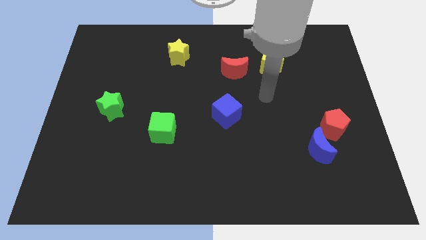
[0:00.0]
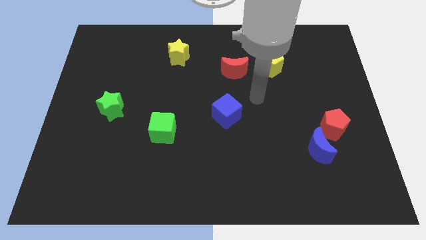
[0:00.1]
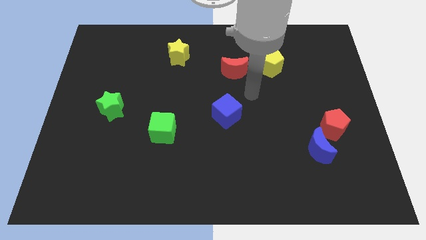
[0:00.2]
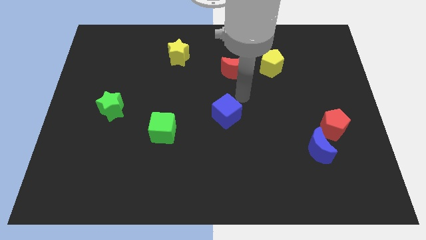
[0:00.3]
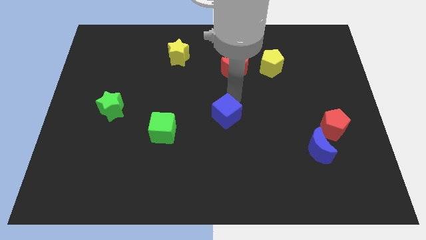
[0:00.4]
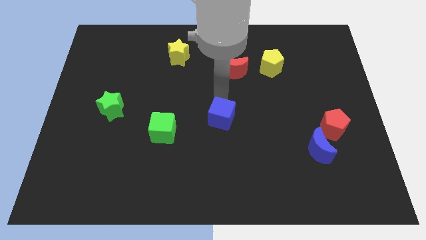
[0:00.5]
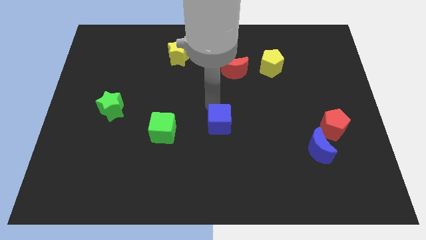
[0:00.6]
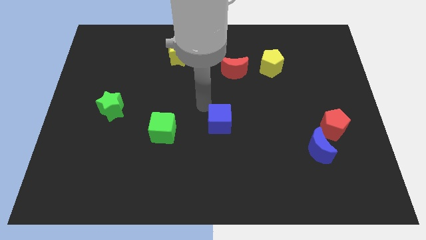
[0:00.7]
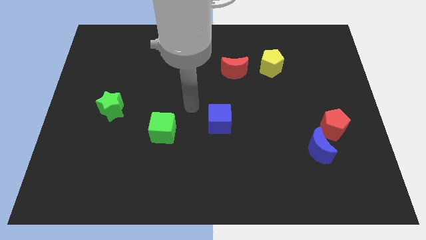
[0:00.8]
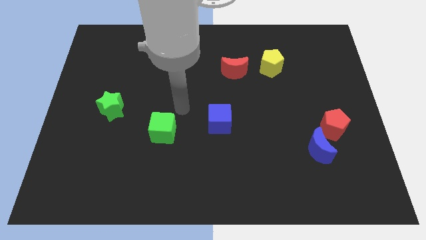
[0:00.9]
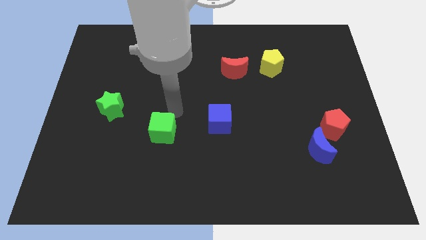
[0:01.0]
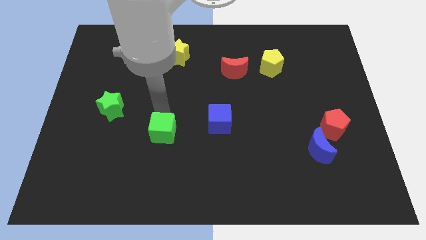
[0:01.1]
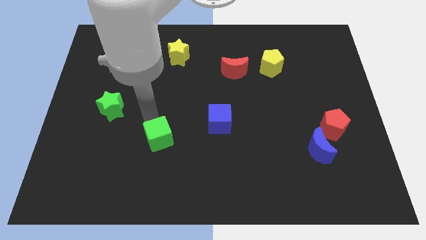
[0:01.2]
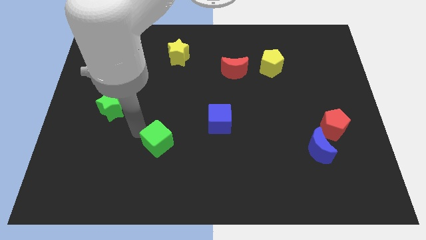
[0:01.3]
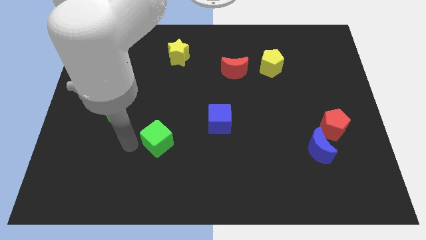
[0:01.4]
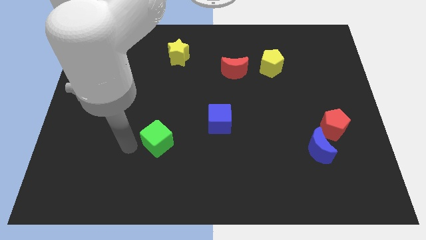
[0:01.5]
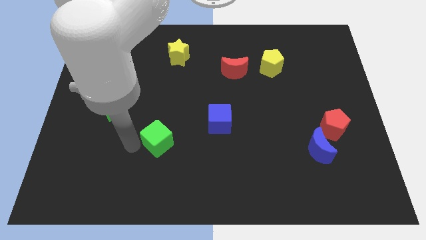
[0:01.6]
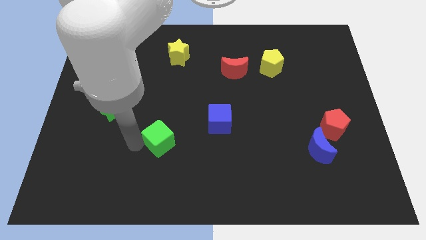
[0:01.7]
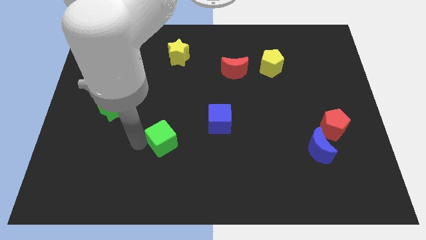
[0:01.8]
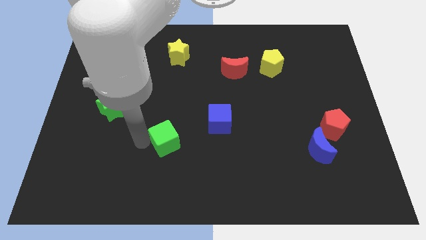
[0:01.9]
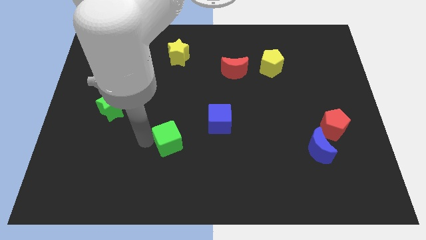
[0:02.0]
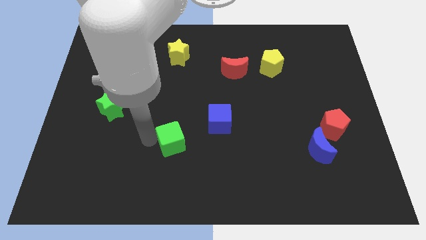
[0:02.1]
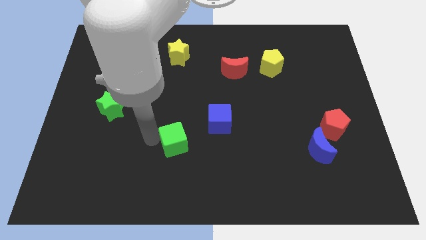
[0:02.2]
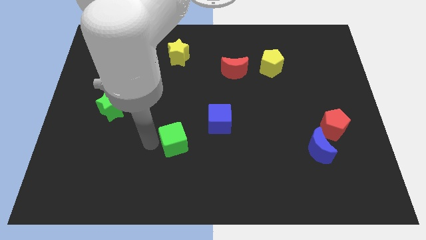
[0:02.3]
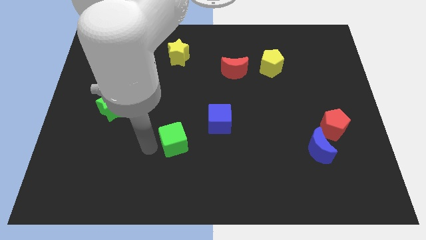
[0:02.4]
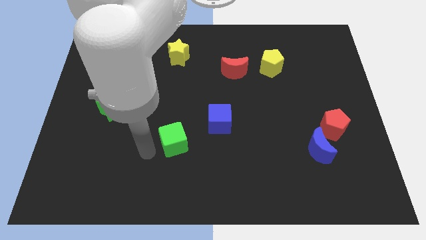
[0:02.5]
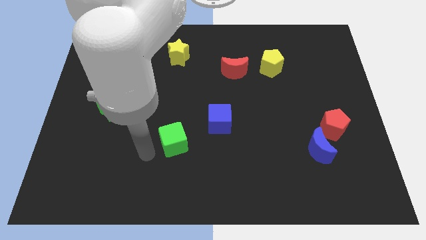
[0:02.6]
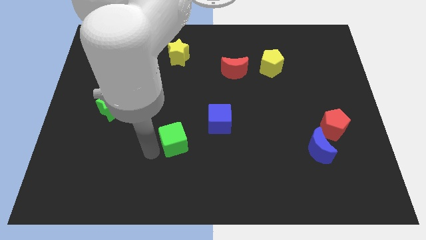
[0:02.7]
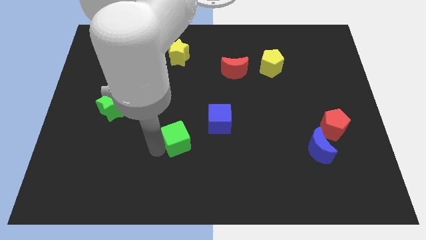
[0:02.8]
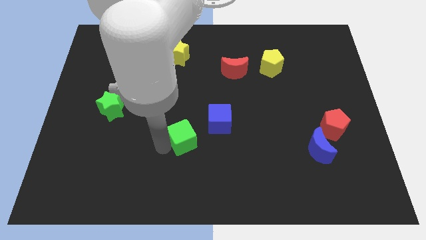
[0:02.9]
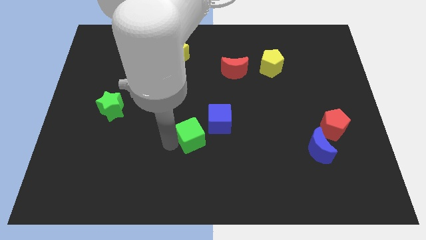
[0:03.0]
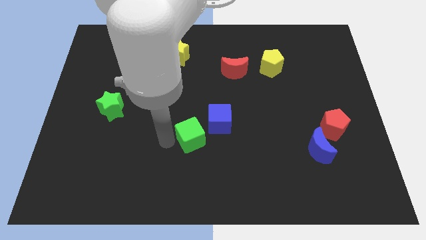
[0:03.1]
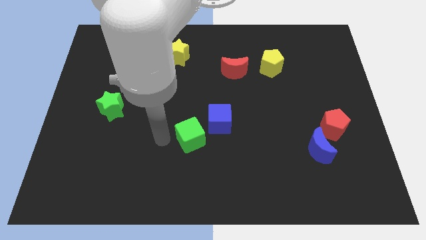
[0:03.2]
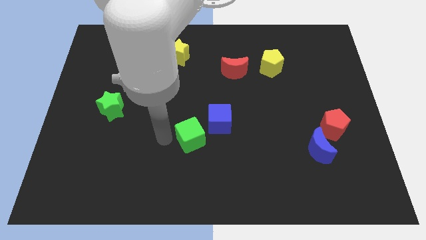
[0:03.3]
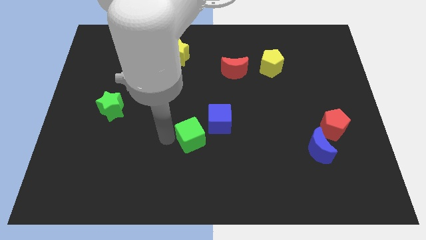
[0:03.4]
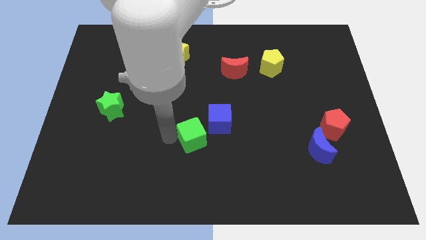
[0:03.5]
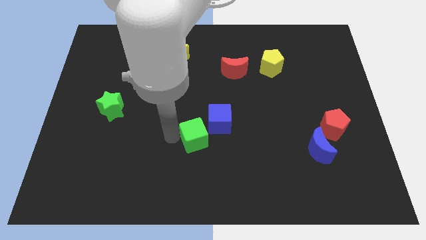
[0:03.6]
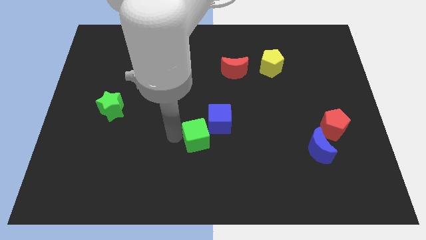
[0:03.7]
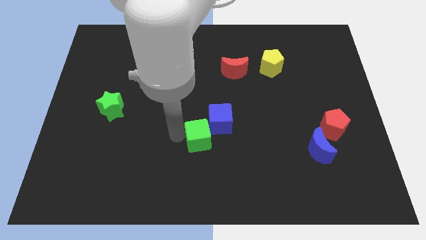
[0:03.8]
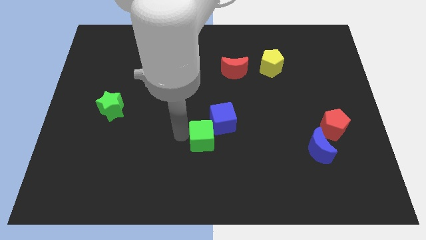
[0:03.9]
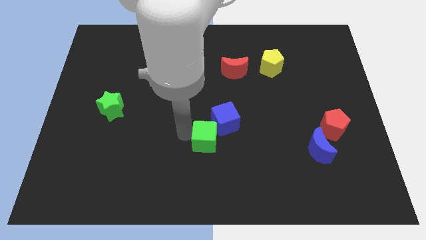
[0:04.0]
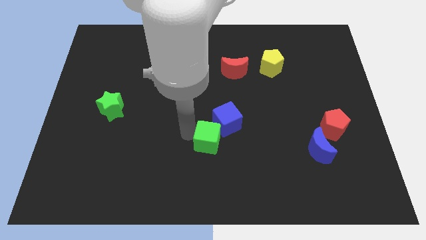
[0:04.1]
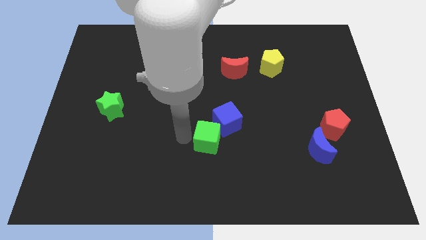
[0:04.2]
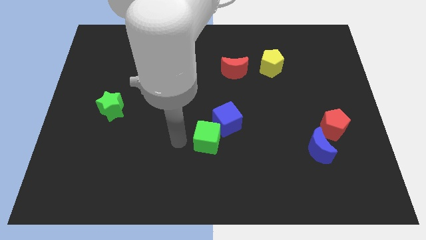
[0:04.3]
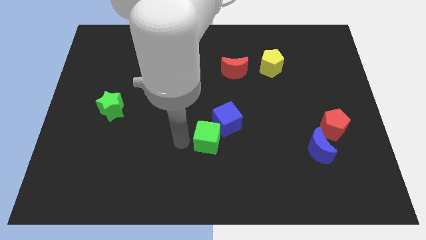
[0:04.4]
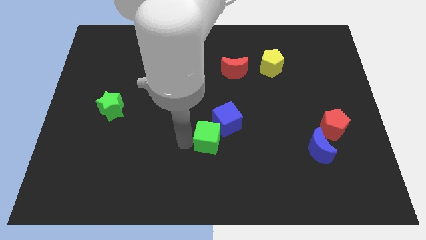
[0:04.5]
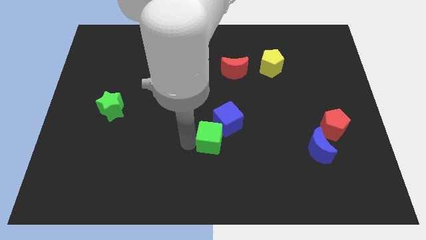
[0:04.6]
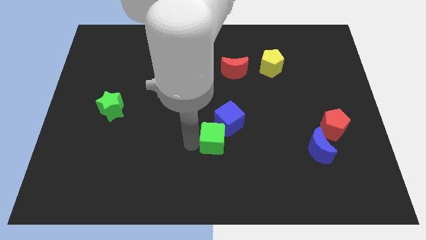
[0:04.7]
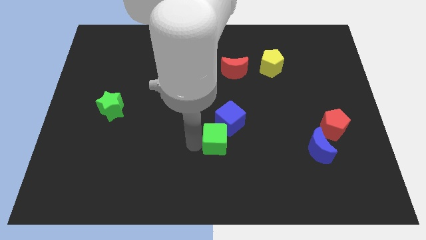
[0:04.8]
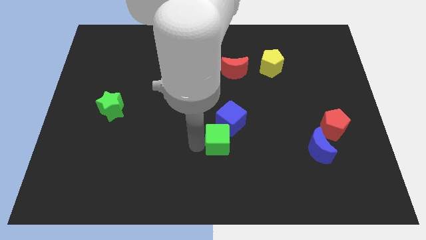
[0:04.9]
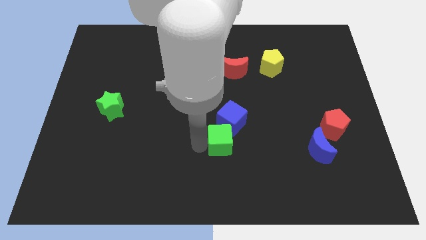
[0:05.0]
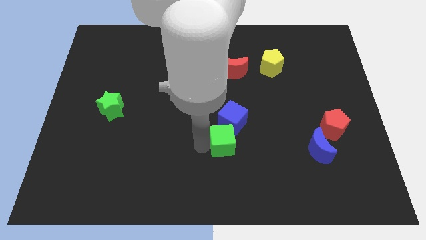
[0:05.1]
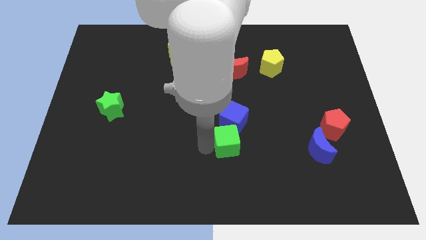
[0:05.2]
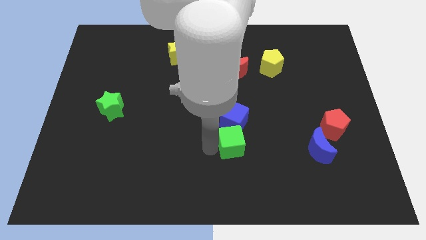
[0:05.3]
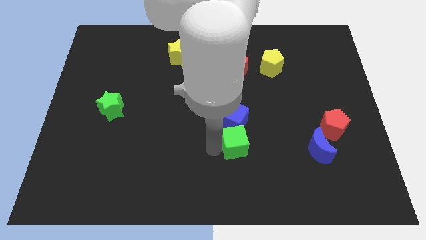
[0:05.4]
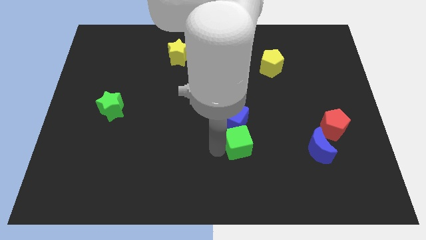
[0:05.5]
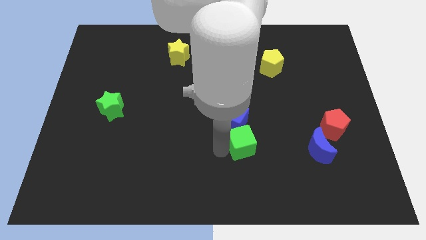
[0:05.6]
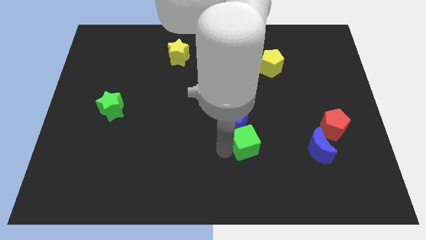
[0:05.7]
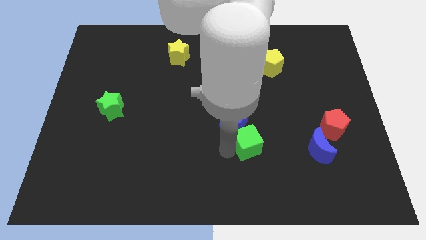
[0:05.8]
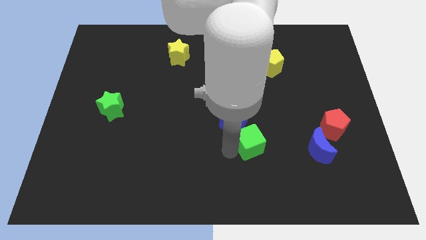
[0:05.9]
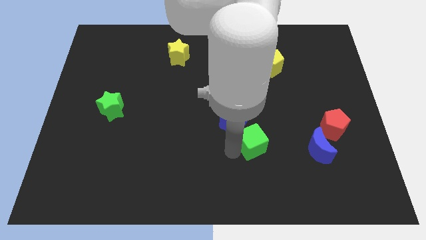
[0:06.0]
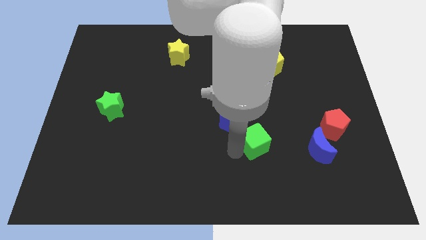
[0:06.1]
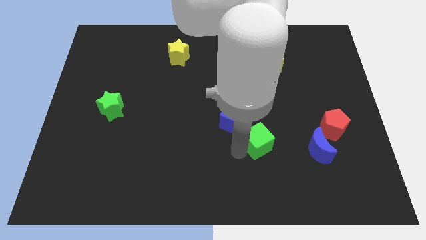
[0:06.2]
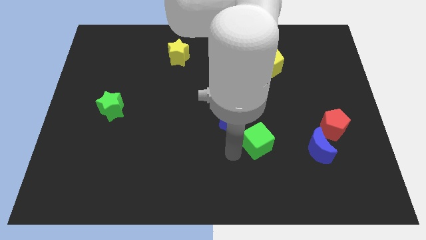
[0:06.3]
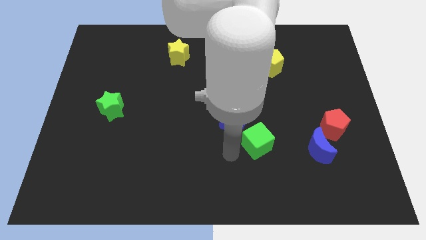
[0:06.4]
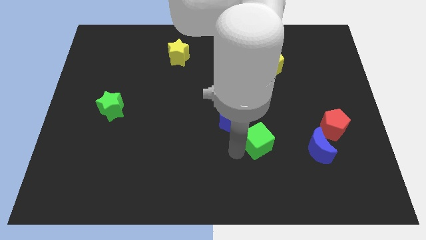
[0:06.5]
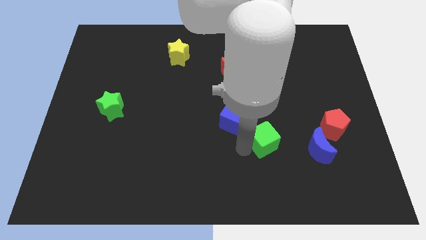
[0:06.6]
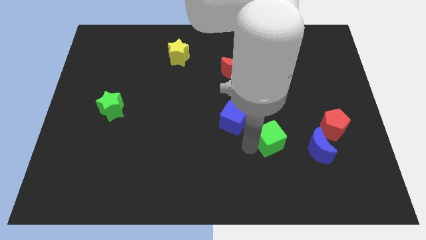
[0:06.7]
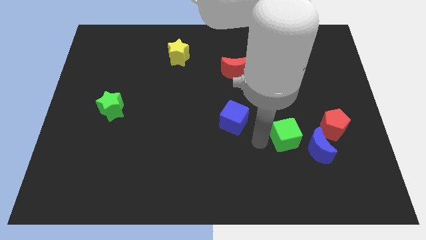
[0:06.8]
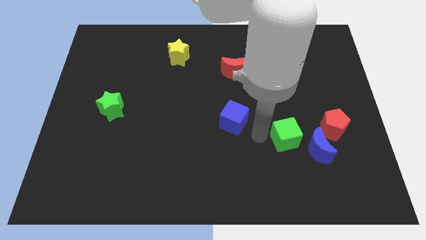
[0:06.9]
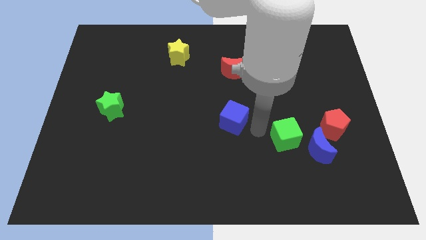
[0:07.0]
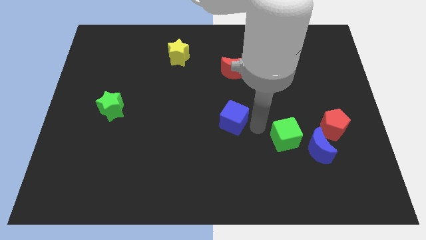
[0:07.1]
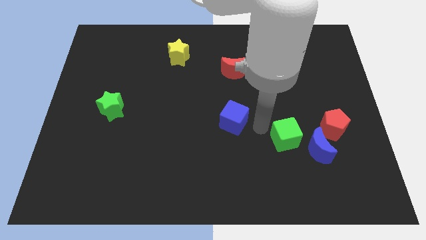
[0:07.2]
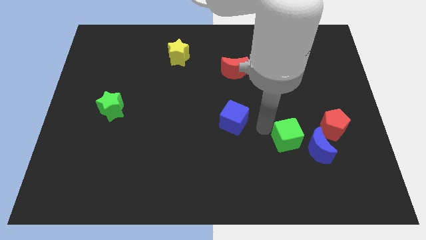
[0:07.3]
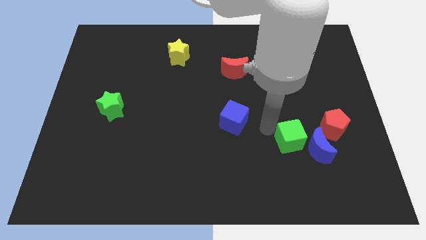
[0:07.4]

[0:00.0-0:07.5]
put the green cube to the blue moon
